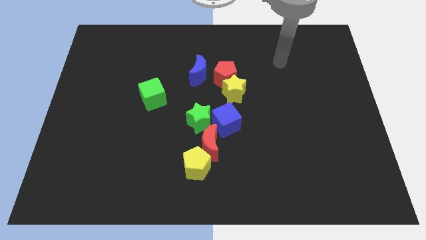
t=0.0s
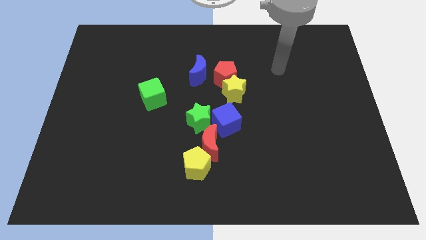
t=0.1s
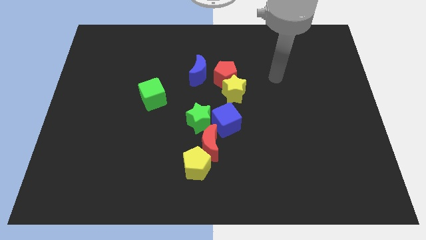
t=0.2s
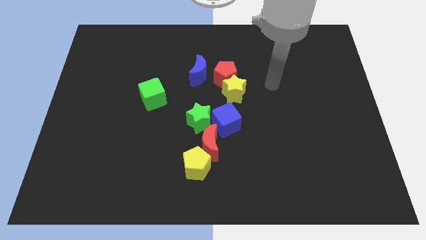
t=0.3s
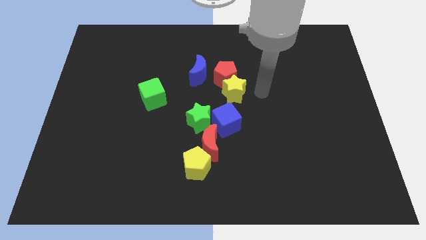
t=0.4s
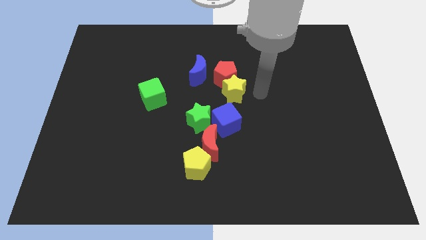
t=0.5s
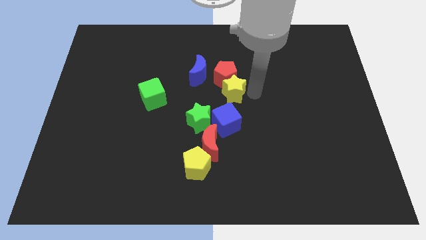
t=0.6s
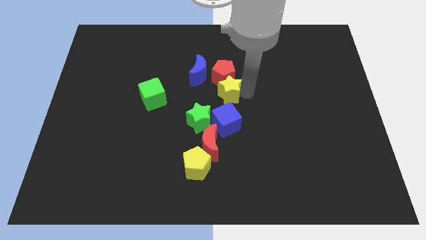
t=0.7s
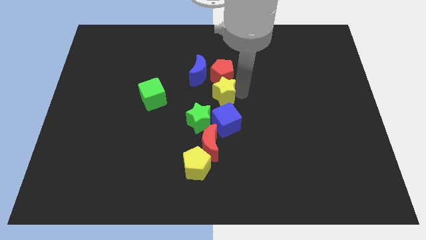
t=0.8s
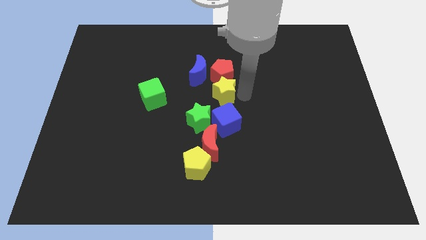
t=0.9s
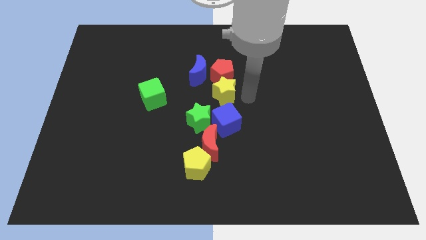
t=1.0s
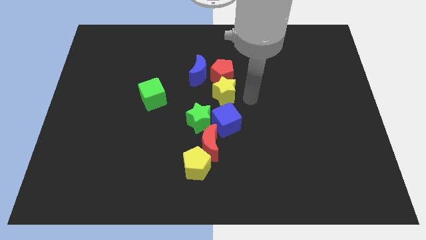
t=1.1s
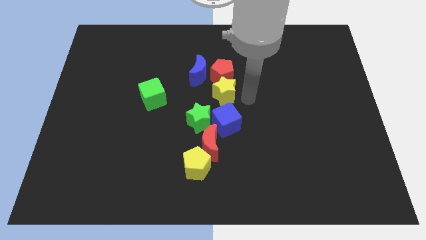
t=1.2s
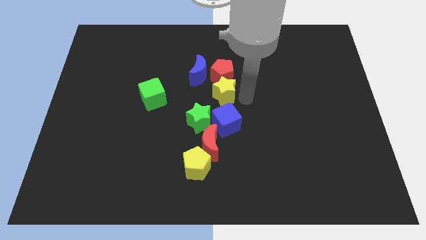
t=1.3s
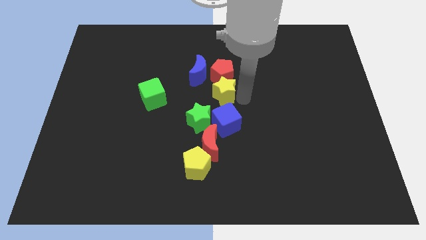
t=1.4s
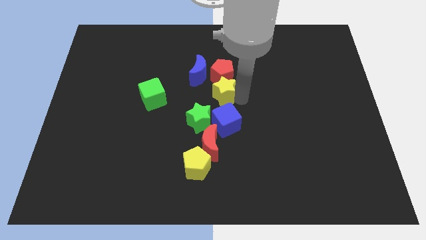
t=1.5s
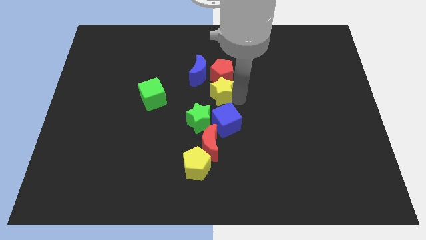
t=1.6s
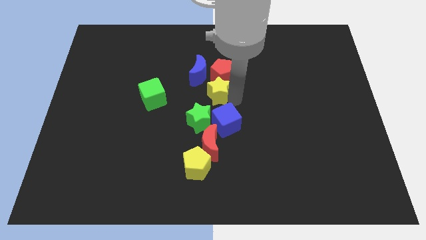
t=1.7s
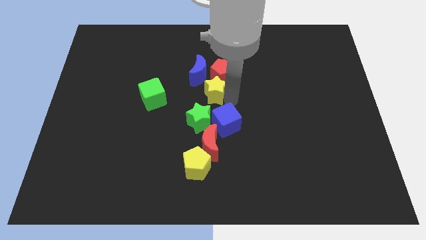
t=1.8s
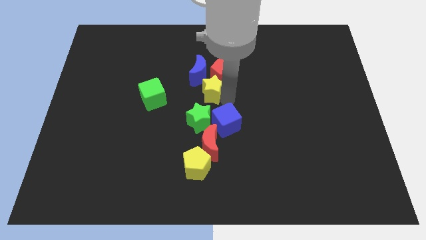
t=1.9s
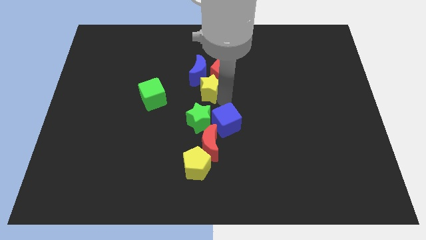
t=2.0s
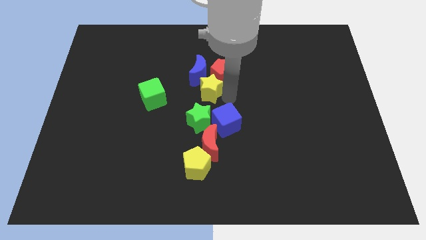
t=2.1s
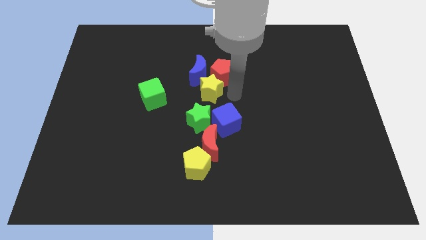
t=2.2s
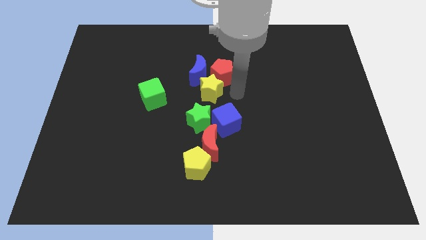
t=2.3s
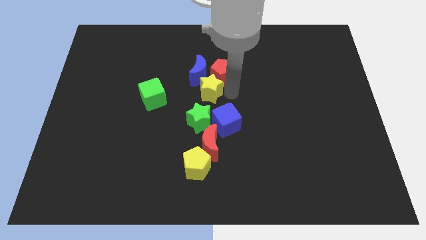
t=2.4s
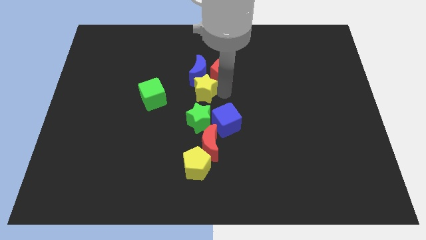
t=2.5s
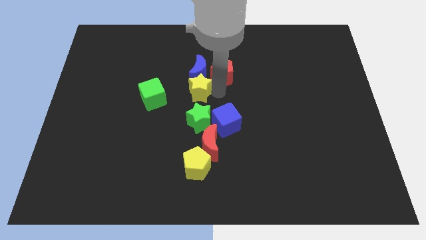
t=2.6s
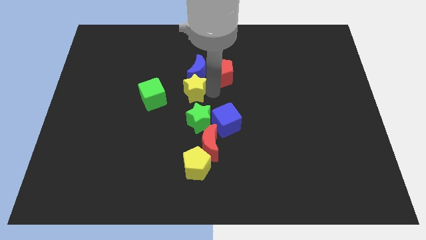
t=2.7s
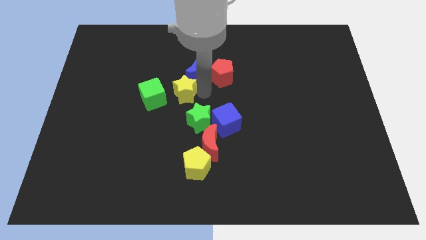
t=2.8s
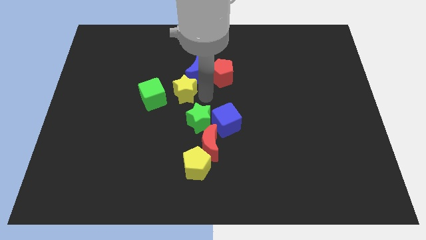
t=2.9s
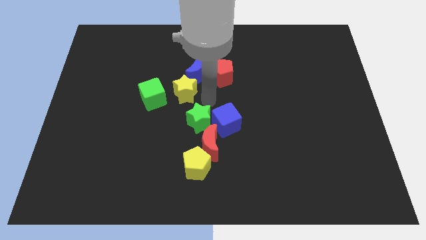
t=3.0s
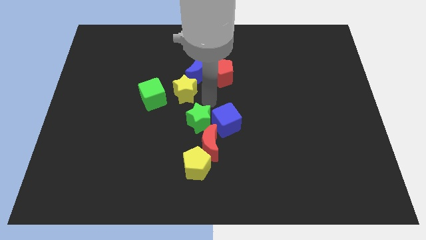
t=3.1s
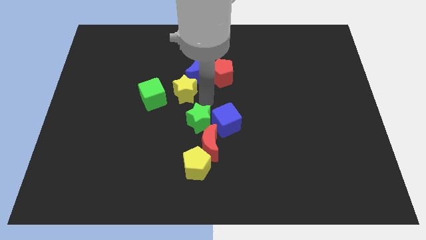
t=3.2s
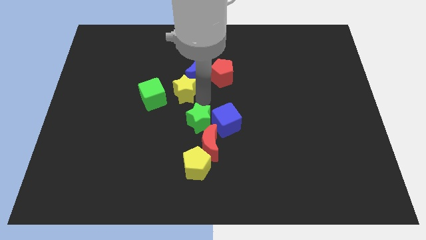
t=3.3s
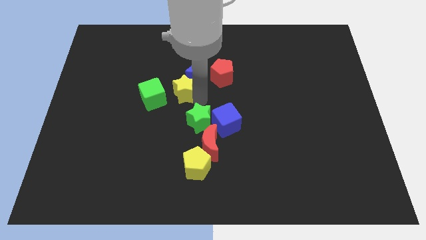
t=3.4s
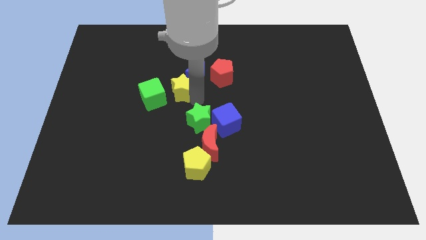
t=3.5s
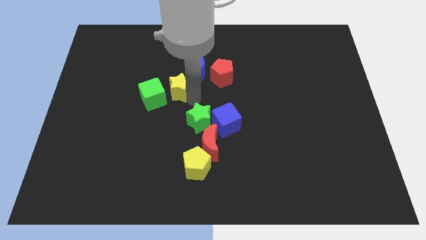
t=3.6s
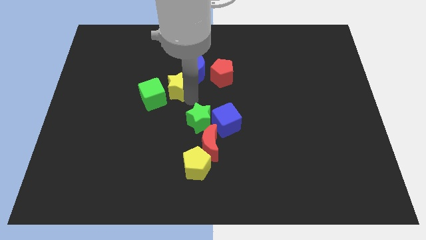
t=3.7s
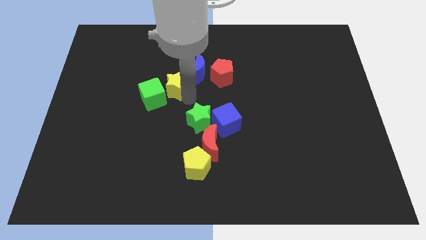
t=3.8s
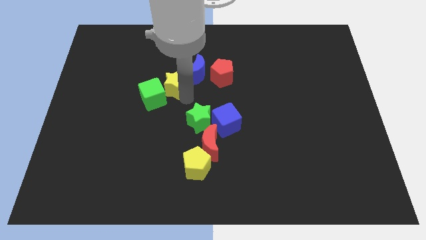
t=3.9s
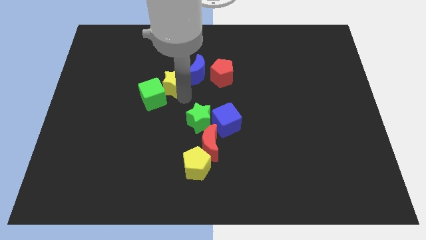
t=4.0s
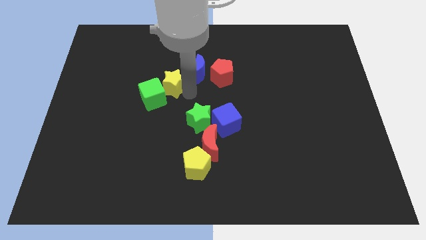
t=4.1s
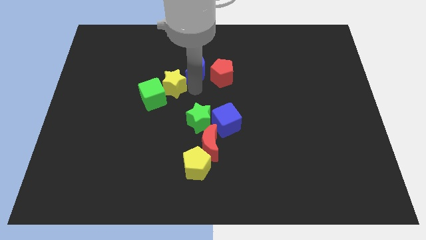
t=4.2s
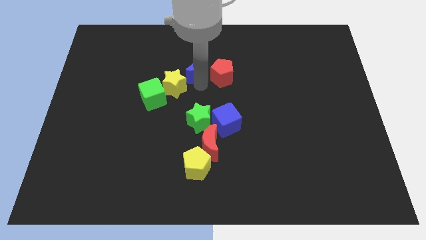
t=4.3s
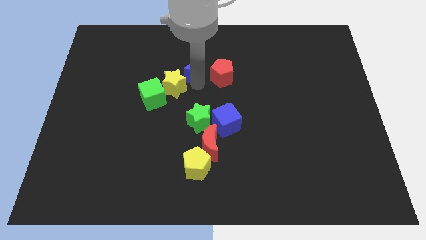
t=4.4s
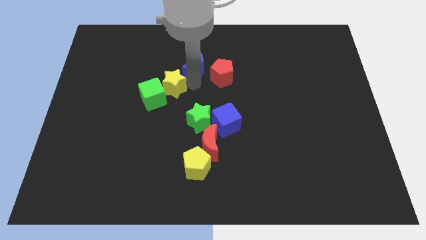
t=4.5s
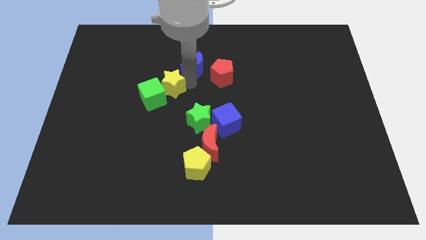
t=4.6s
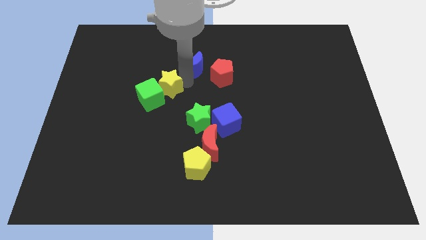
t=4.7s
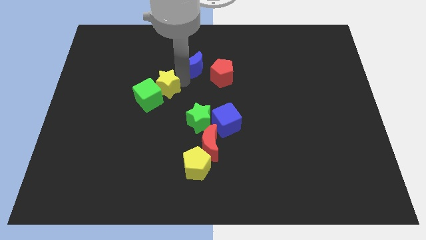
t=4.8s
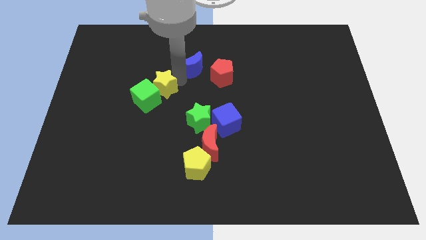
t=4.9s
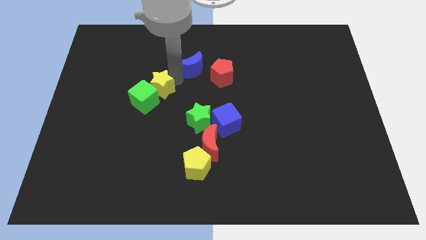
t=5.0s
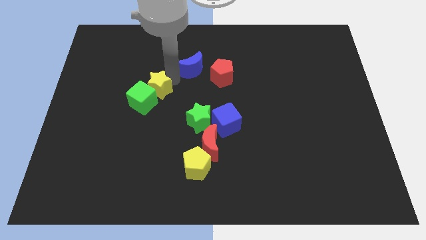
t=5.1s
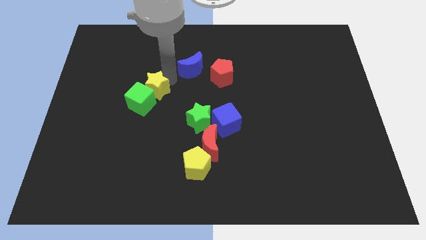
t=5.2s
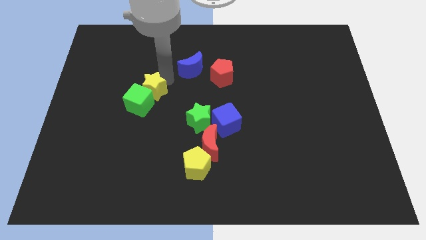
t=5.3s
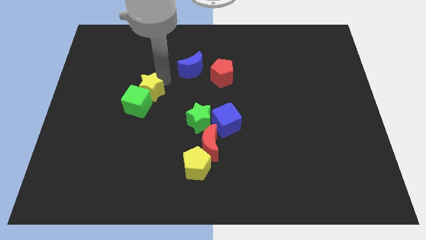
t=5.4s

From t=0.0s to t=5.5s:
slide the yellow star to the left

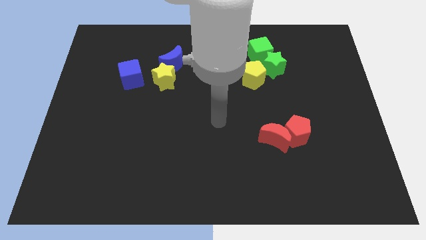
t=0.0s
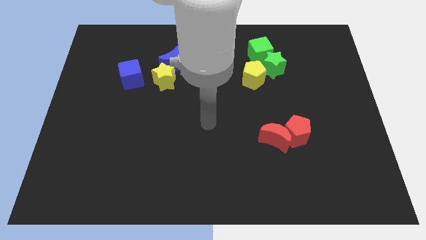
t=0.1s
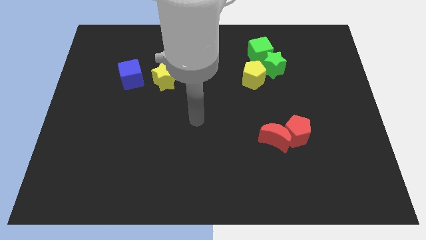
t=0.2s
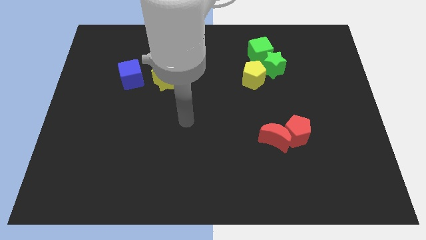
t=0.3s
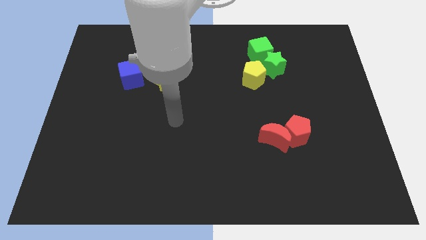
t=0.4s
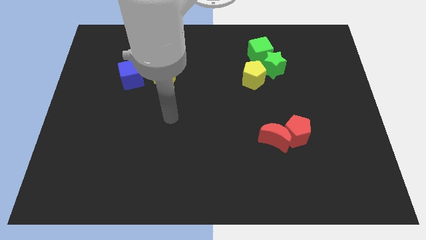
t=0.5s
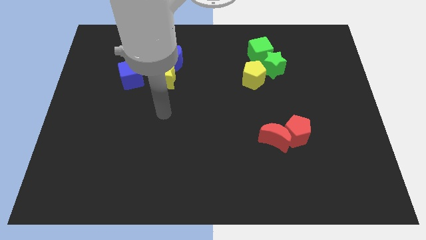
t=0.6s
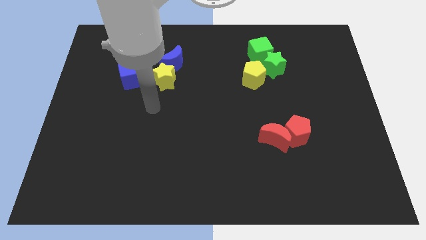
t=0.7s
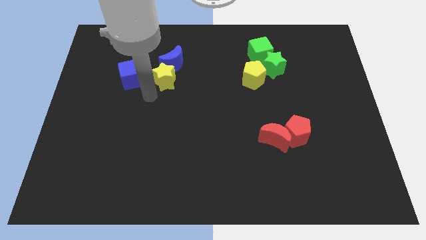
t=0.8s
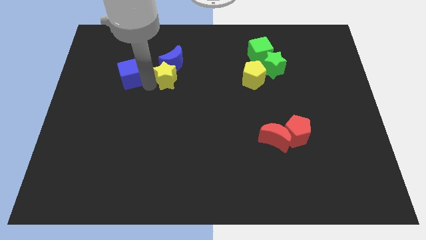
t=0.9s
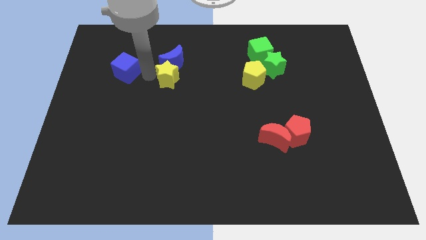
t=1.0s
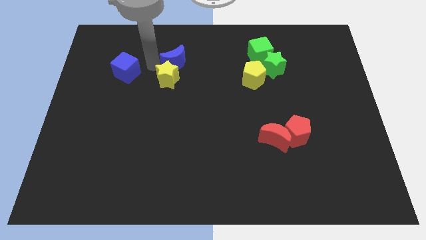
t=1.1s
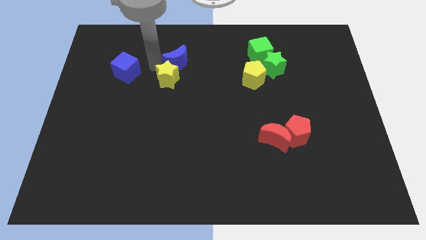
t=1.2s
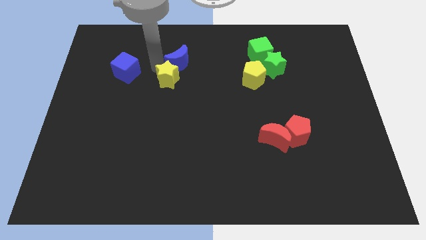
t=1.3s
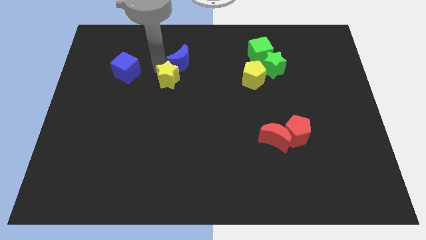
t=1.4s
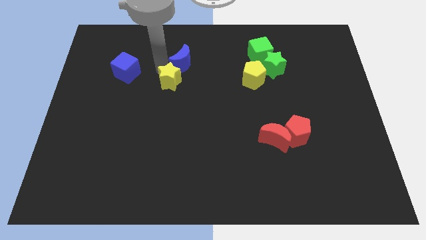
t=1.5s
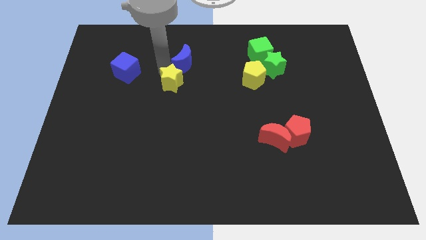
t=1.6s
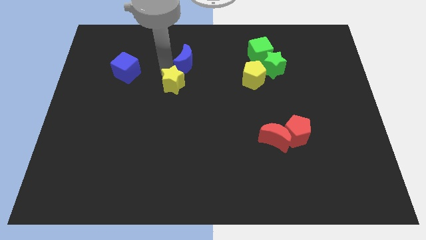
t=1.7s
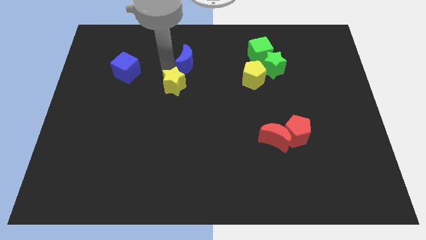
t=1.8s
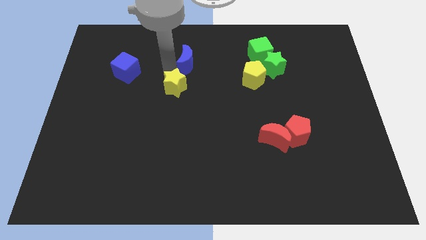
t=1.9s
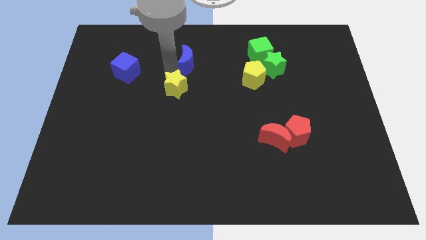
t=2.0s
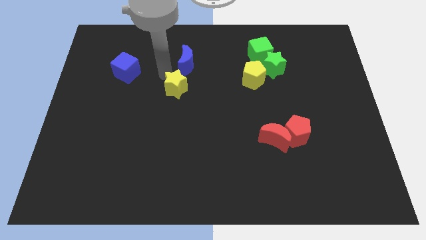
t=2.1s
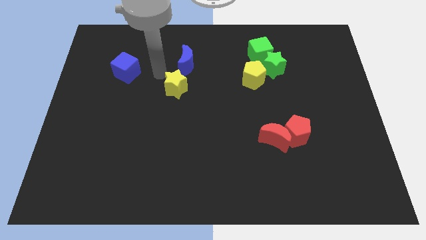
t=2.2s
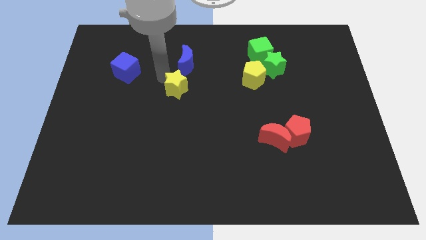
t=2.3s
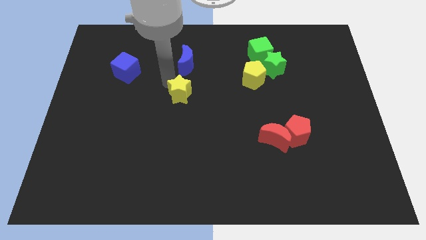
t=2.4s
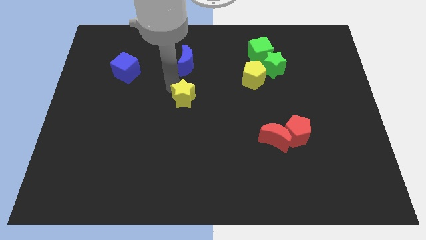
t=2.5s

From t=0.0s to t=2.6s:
slightly push the yellow star down and to the right
